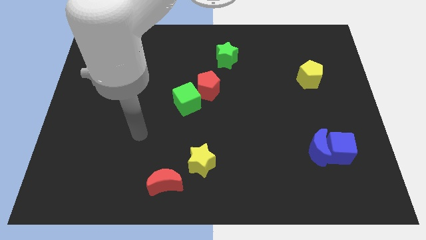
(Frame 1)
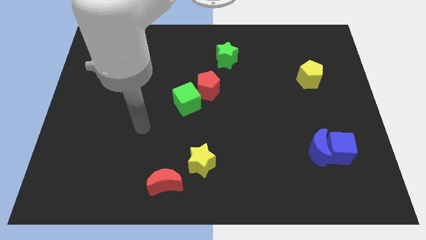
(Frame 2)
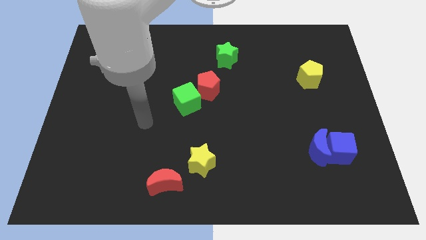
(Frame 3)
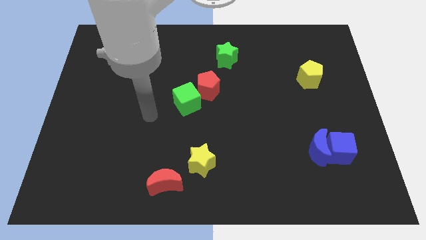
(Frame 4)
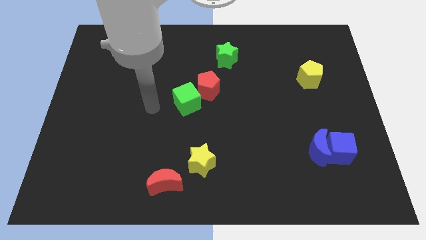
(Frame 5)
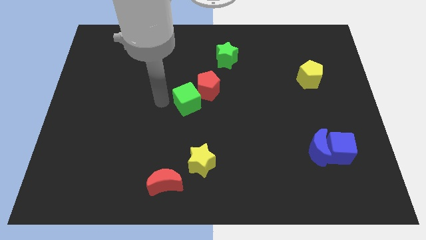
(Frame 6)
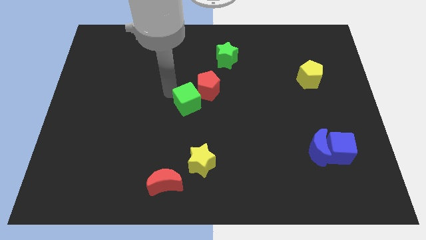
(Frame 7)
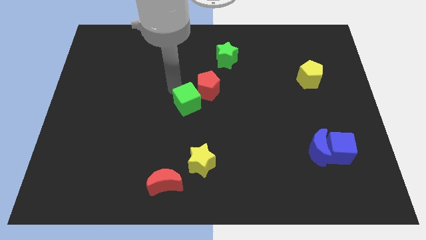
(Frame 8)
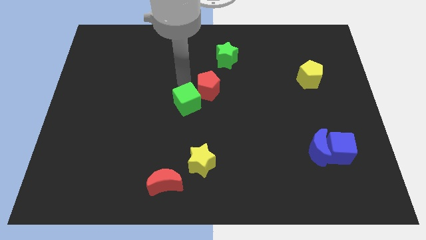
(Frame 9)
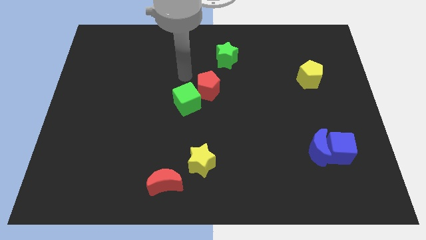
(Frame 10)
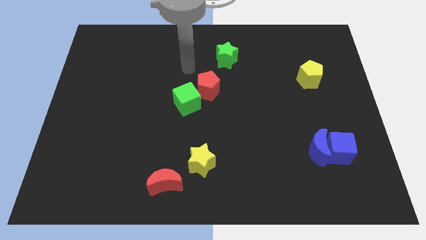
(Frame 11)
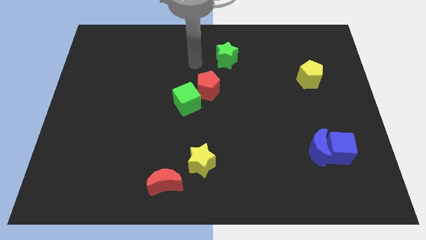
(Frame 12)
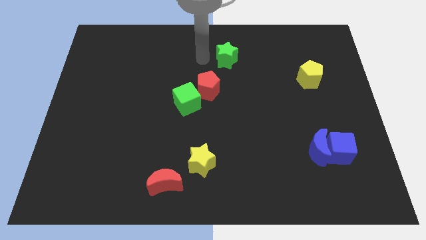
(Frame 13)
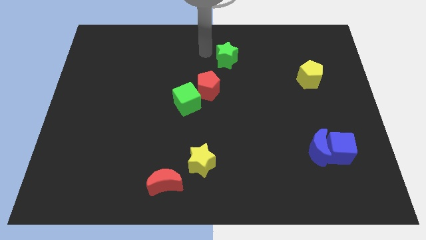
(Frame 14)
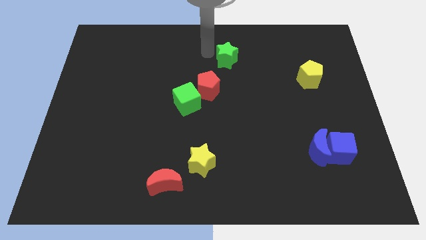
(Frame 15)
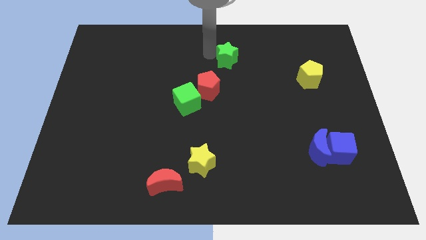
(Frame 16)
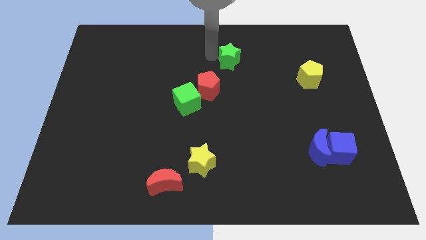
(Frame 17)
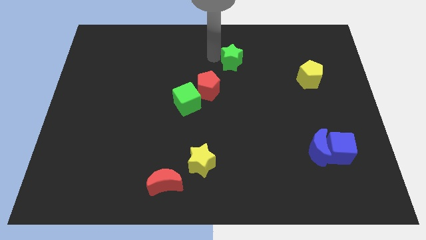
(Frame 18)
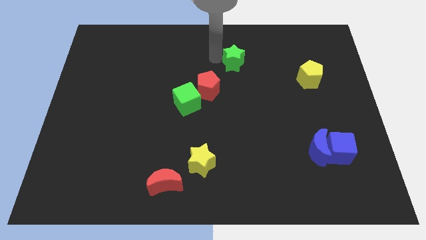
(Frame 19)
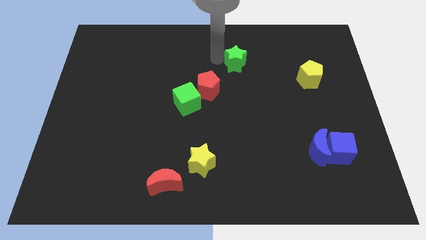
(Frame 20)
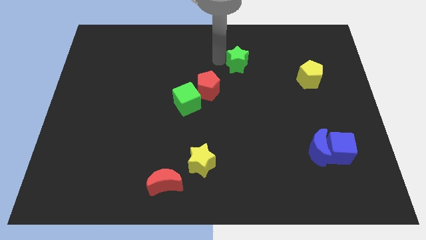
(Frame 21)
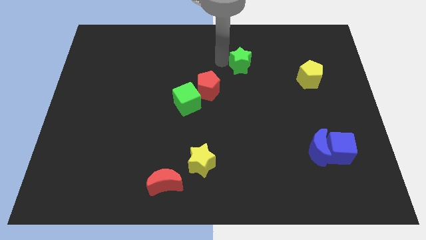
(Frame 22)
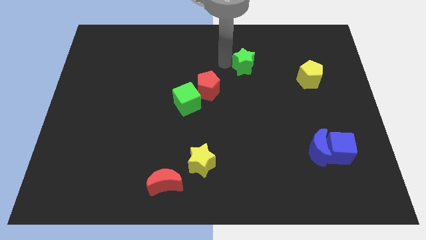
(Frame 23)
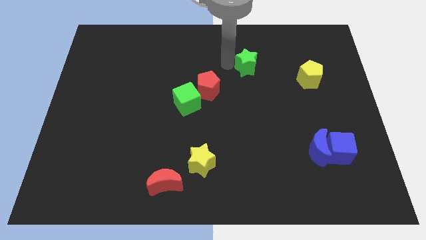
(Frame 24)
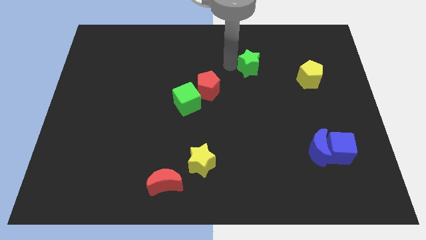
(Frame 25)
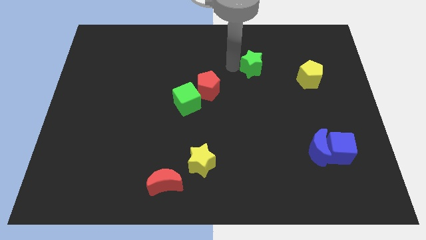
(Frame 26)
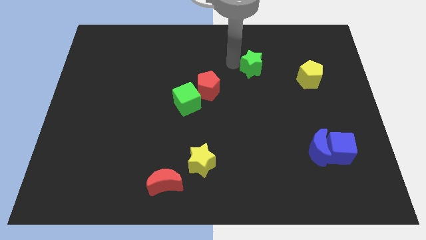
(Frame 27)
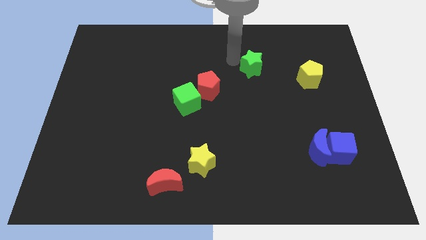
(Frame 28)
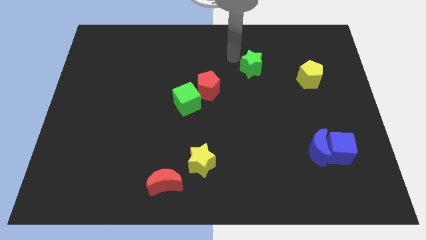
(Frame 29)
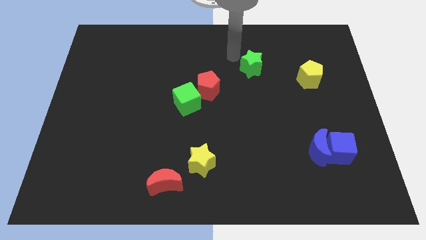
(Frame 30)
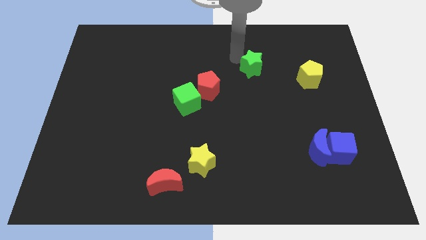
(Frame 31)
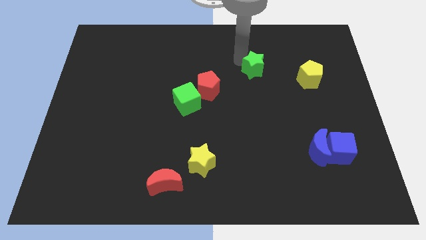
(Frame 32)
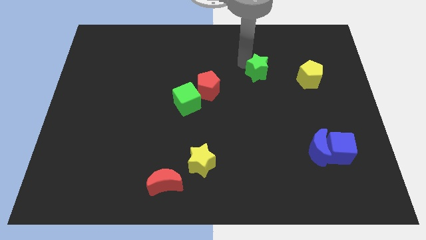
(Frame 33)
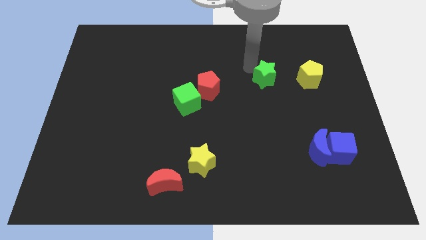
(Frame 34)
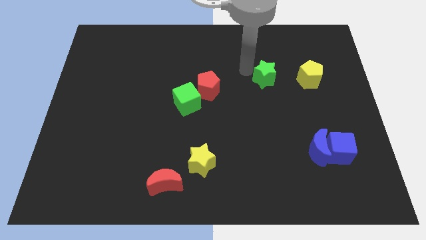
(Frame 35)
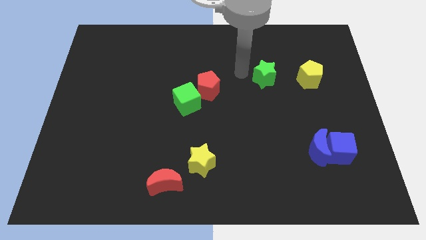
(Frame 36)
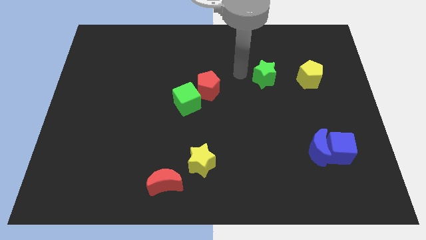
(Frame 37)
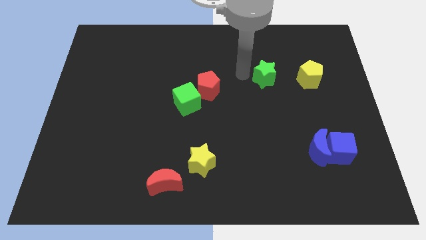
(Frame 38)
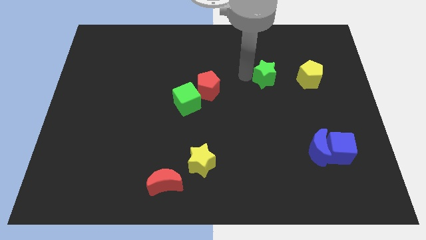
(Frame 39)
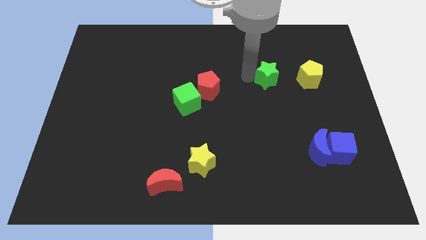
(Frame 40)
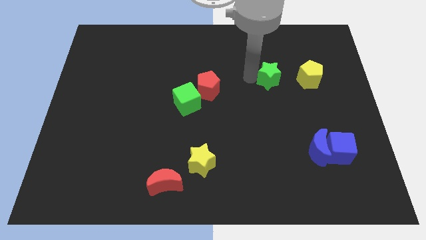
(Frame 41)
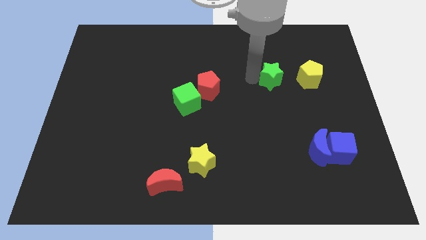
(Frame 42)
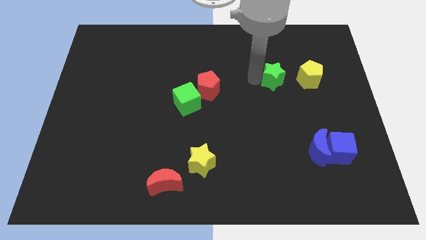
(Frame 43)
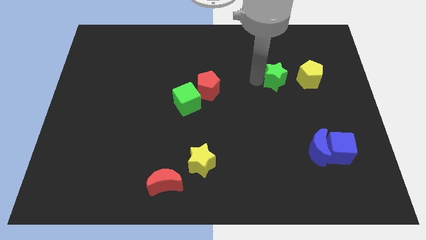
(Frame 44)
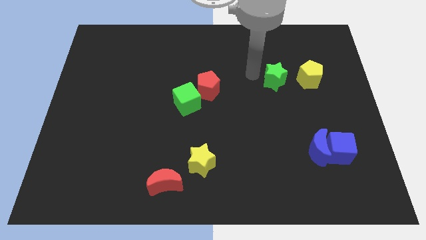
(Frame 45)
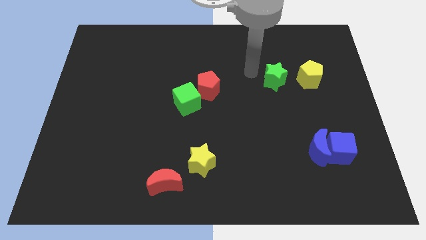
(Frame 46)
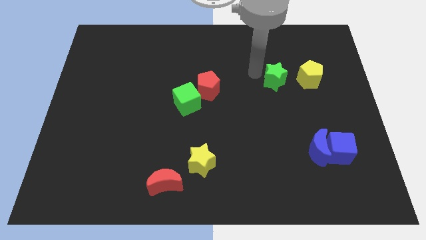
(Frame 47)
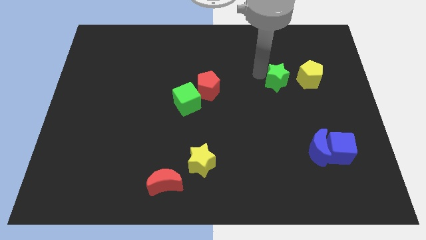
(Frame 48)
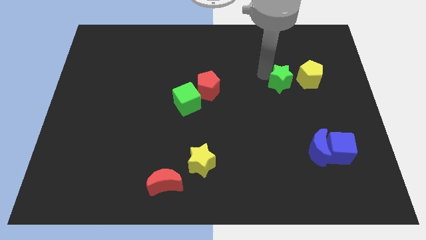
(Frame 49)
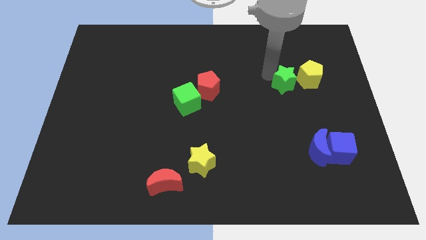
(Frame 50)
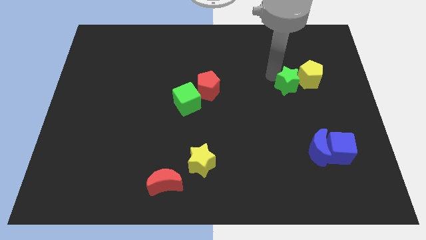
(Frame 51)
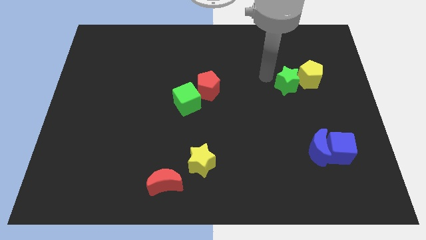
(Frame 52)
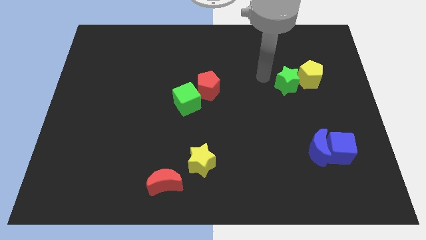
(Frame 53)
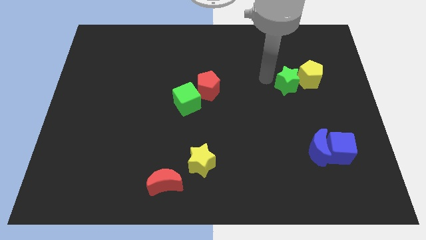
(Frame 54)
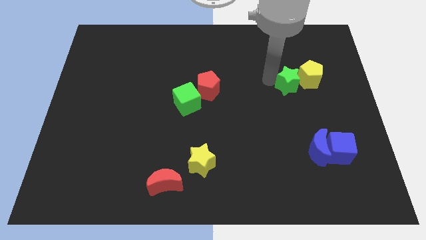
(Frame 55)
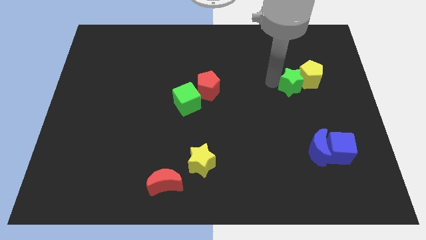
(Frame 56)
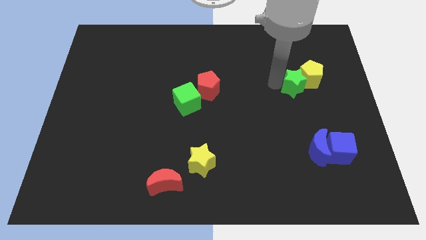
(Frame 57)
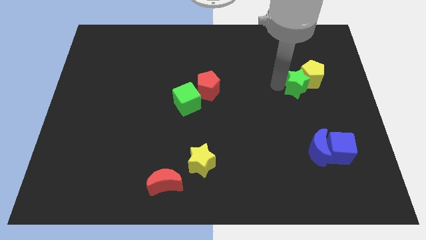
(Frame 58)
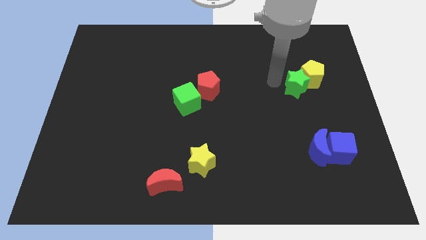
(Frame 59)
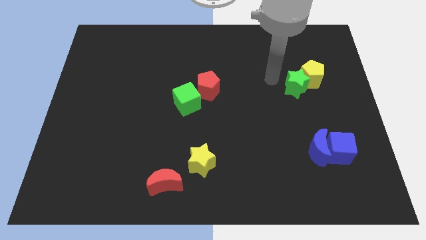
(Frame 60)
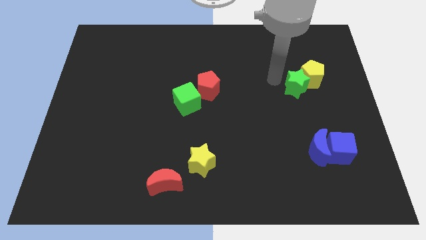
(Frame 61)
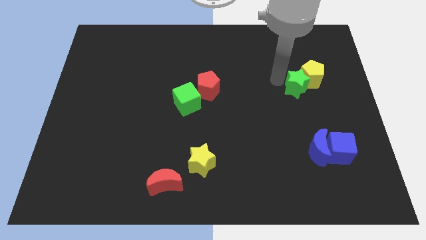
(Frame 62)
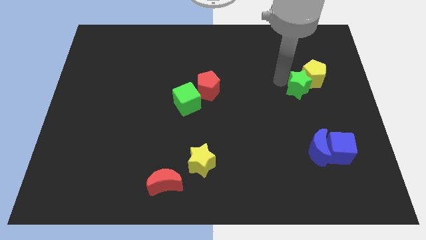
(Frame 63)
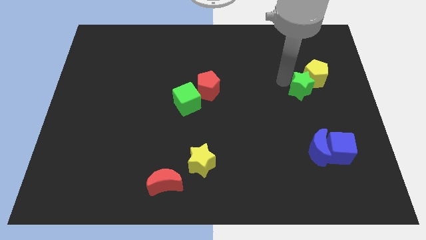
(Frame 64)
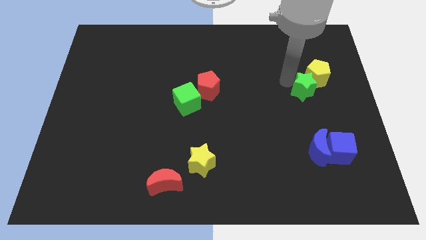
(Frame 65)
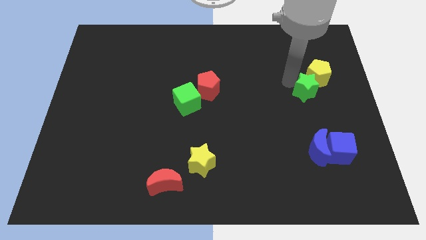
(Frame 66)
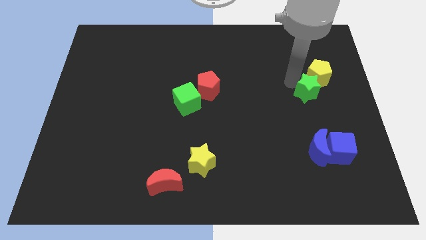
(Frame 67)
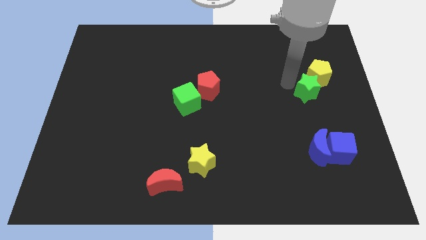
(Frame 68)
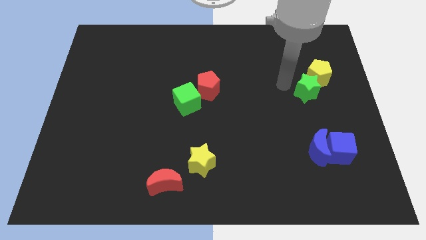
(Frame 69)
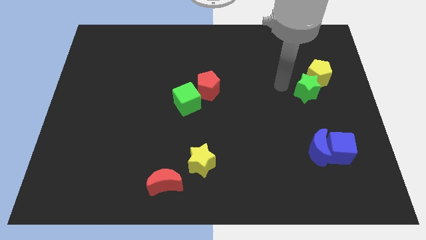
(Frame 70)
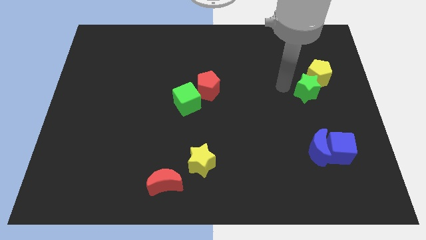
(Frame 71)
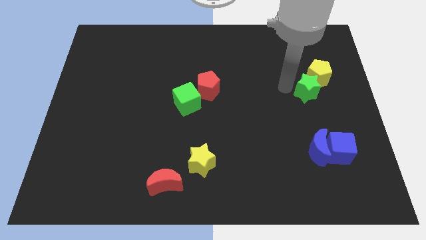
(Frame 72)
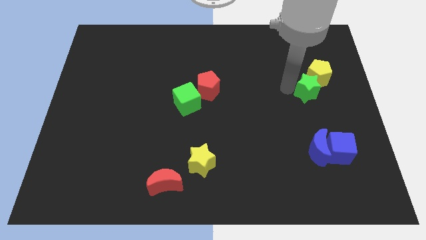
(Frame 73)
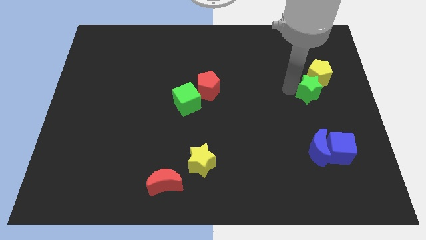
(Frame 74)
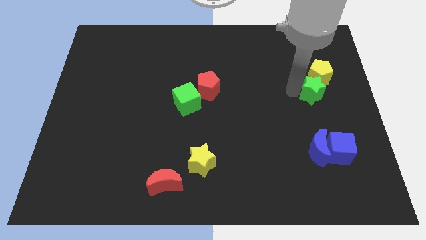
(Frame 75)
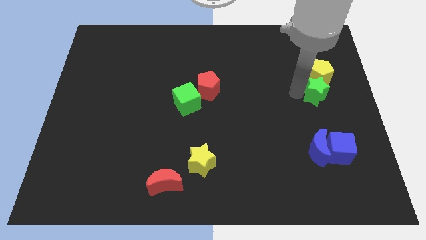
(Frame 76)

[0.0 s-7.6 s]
push the green star to the right side of the board
